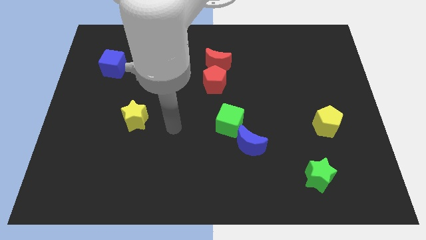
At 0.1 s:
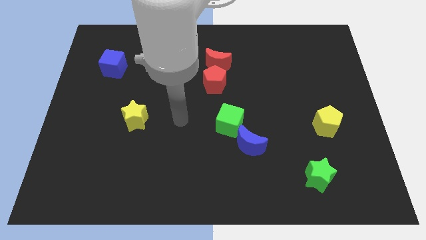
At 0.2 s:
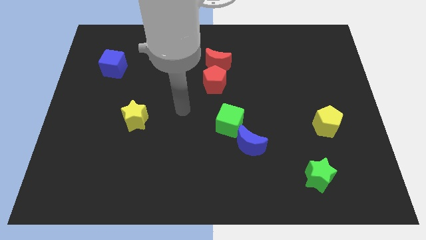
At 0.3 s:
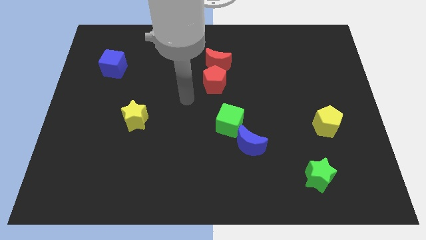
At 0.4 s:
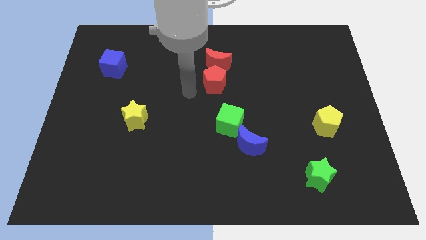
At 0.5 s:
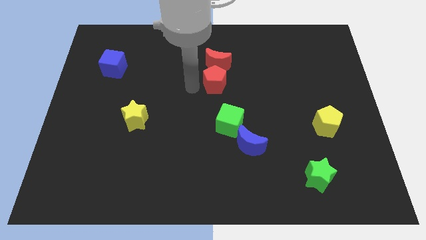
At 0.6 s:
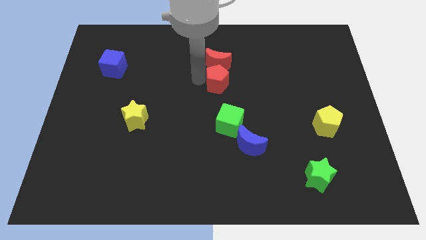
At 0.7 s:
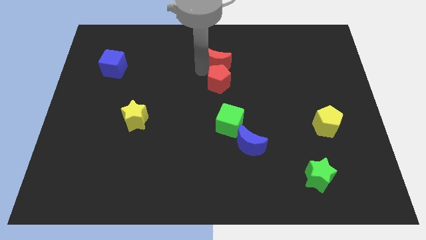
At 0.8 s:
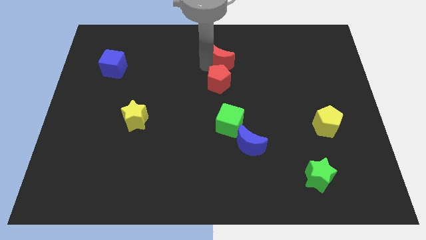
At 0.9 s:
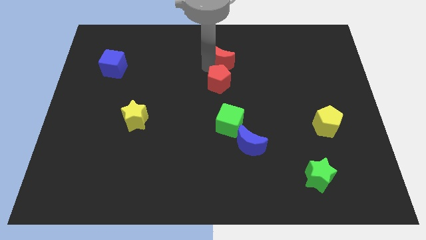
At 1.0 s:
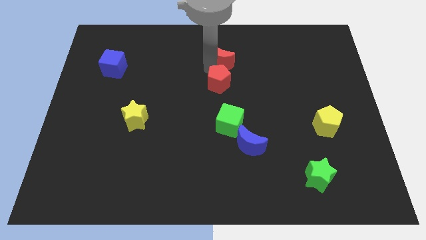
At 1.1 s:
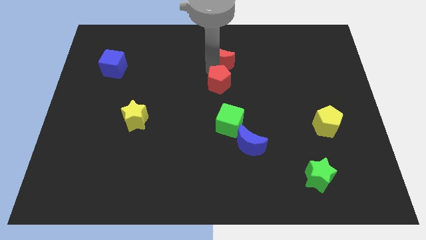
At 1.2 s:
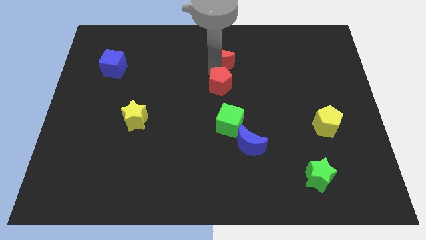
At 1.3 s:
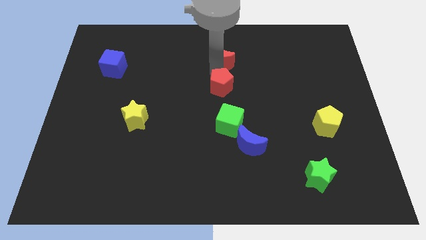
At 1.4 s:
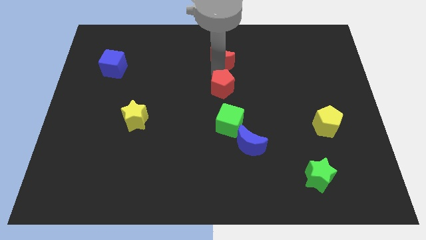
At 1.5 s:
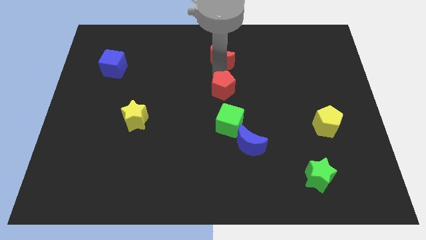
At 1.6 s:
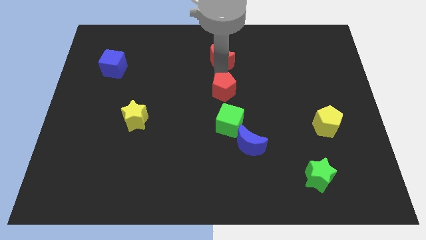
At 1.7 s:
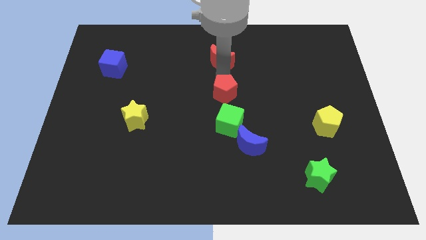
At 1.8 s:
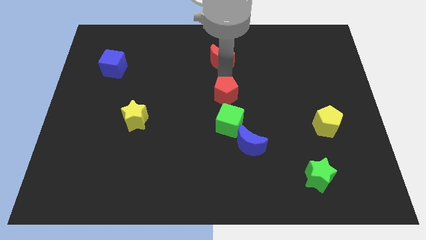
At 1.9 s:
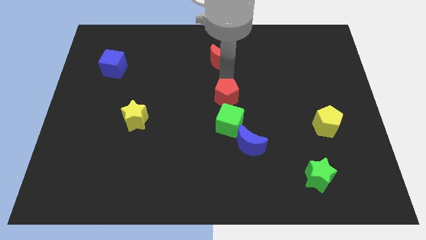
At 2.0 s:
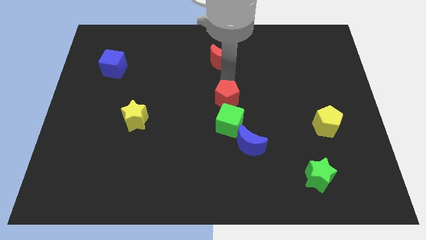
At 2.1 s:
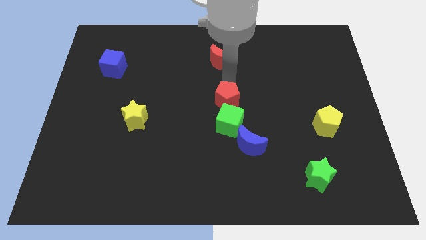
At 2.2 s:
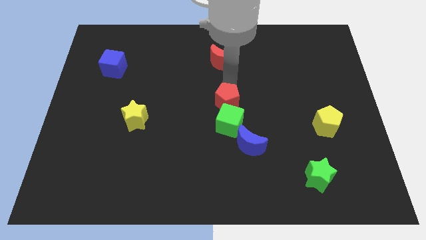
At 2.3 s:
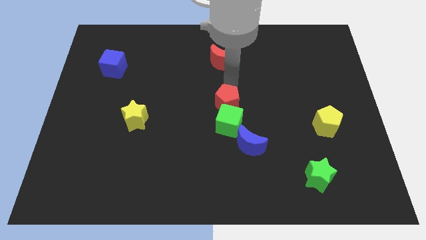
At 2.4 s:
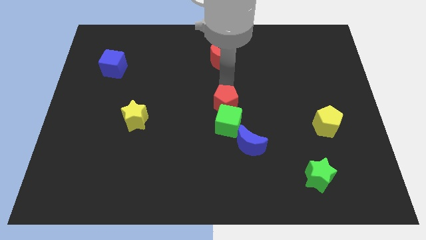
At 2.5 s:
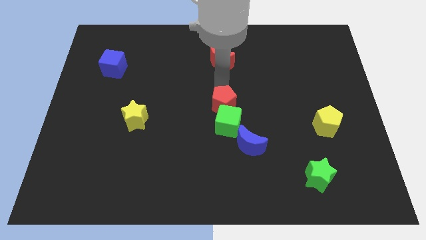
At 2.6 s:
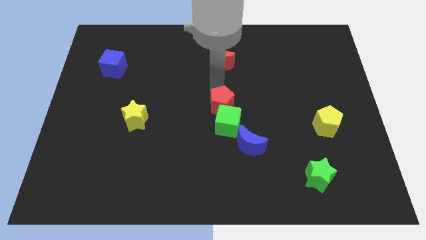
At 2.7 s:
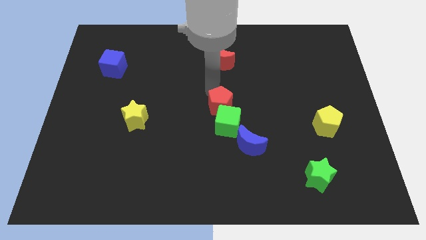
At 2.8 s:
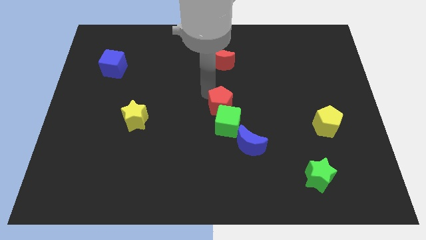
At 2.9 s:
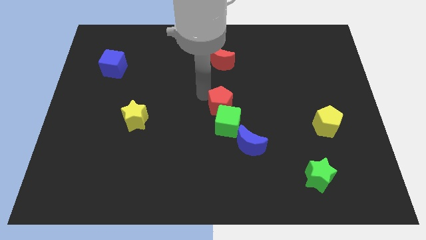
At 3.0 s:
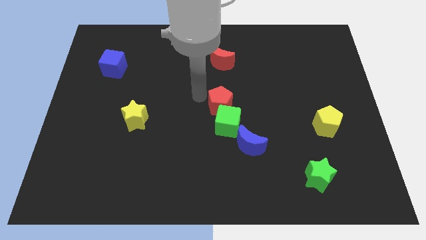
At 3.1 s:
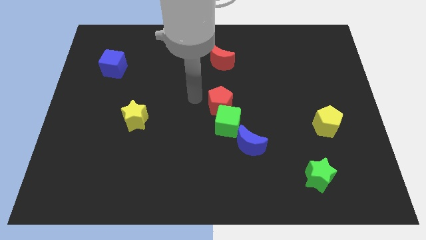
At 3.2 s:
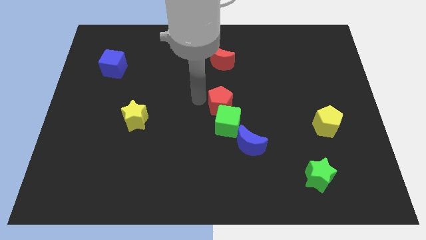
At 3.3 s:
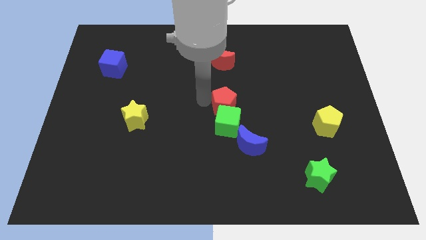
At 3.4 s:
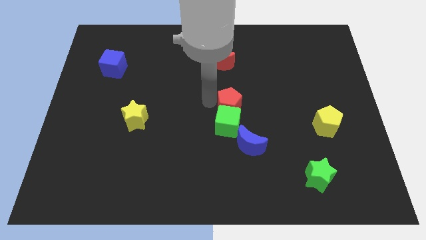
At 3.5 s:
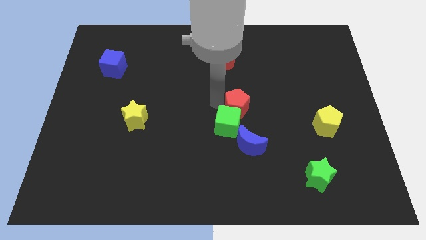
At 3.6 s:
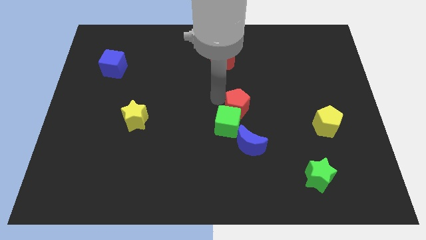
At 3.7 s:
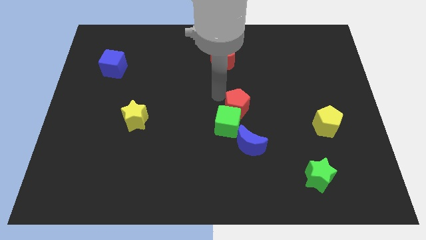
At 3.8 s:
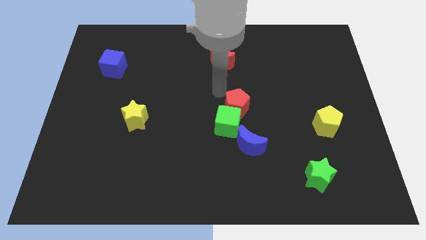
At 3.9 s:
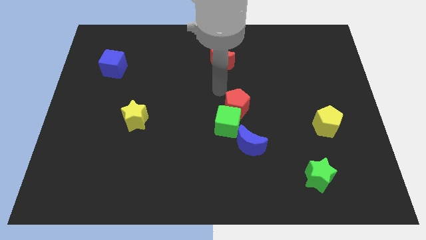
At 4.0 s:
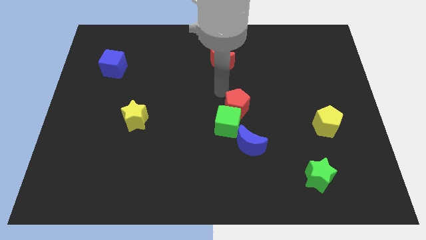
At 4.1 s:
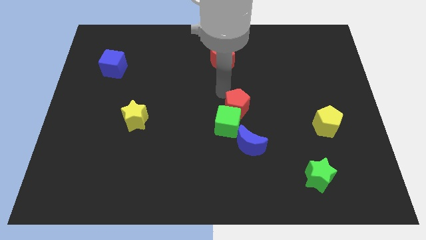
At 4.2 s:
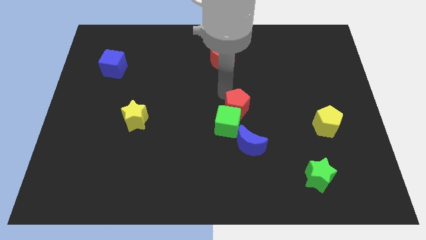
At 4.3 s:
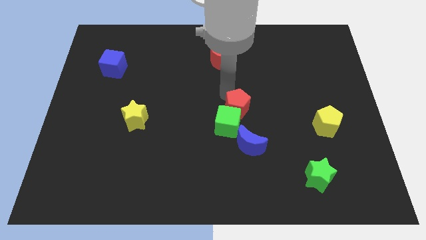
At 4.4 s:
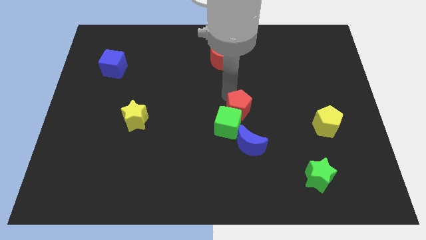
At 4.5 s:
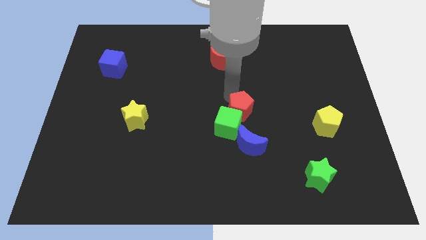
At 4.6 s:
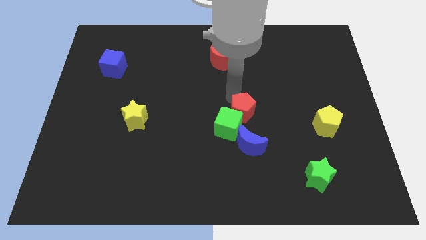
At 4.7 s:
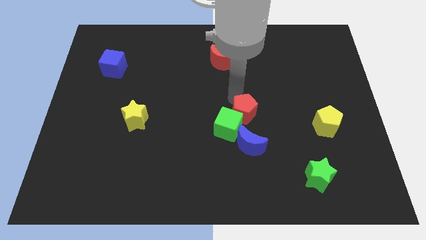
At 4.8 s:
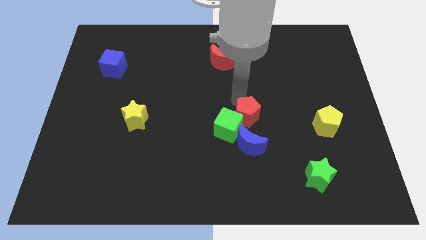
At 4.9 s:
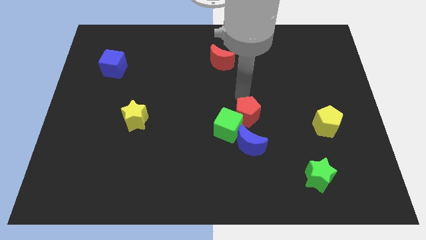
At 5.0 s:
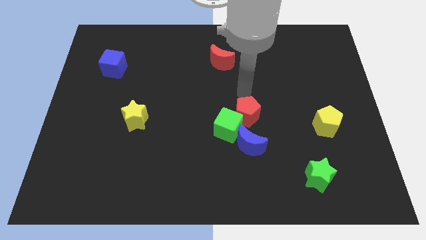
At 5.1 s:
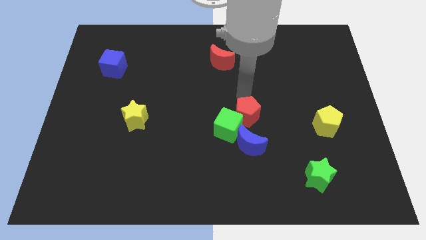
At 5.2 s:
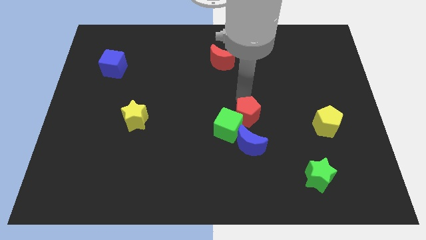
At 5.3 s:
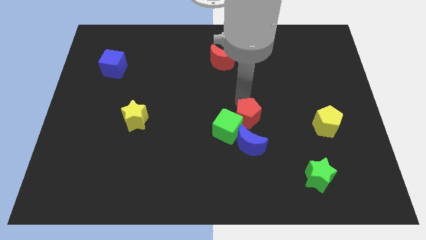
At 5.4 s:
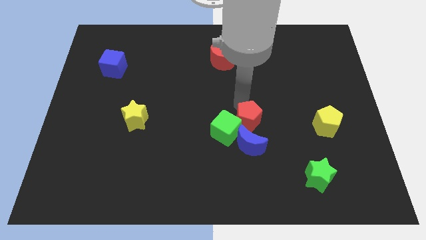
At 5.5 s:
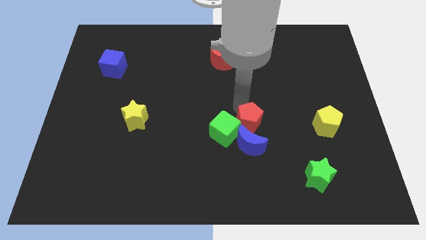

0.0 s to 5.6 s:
put the red pentagon close to the blue moon

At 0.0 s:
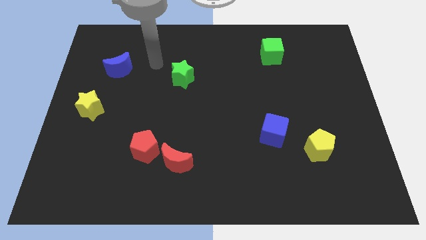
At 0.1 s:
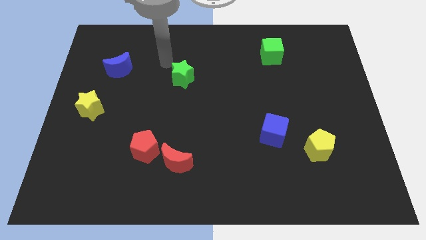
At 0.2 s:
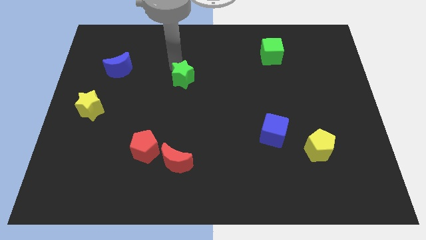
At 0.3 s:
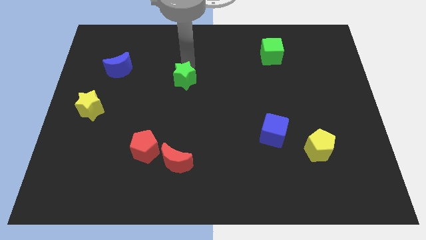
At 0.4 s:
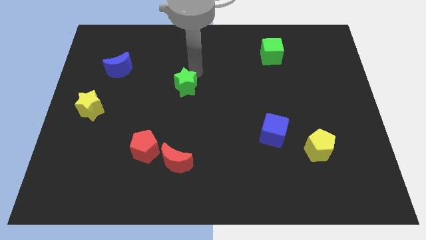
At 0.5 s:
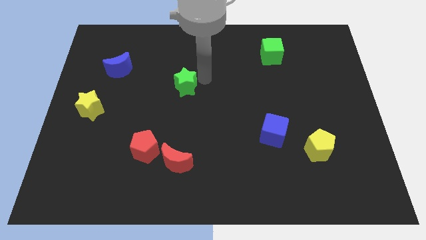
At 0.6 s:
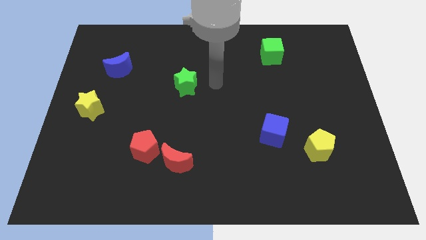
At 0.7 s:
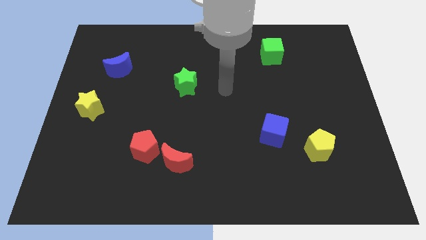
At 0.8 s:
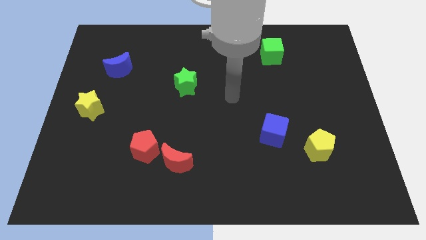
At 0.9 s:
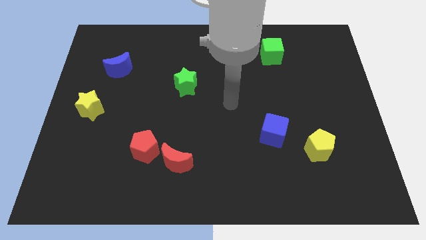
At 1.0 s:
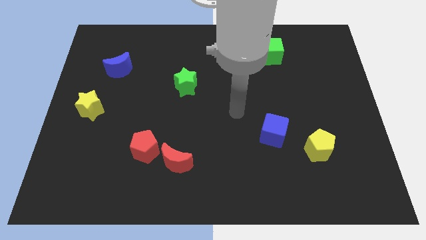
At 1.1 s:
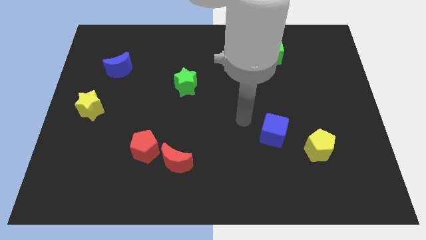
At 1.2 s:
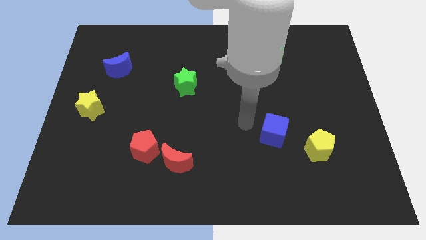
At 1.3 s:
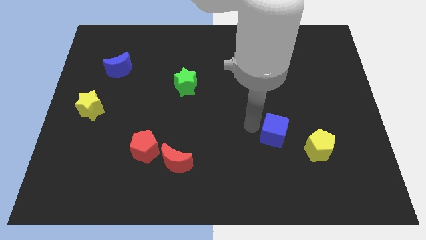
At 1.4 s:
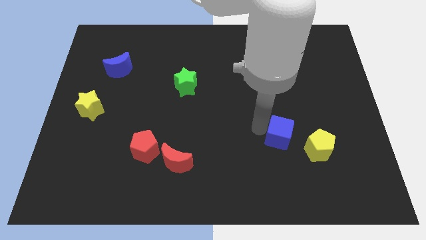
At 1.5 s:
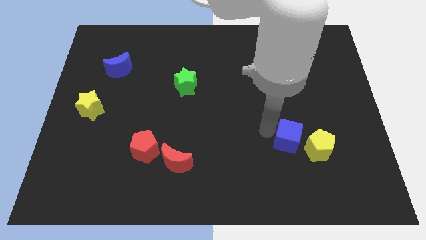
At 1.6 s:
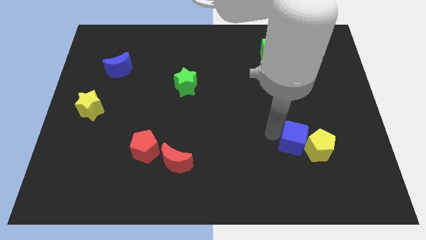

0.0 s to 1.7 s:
push the blue cube towards the yellow pentagon

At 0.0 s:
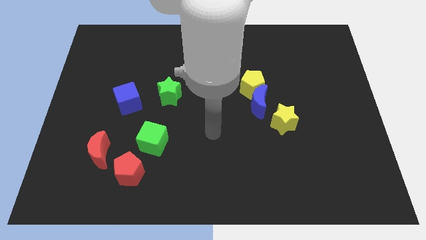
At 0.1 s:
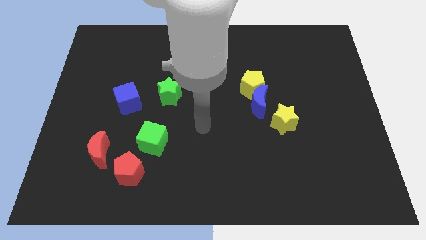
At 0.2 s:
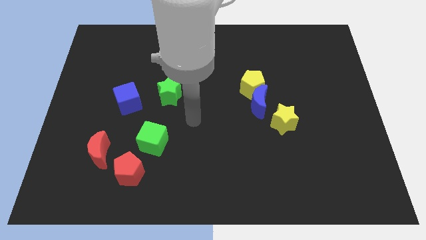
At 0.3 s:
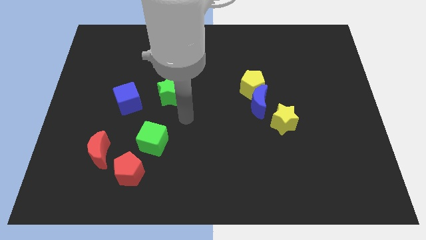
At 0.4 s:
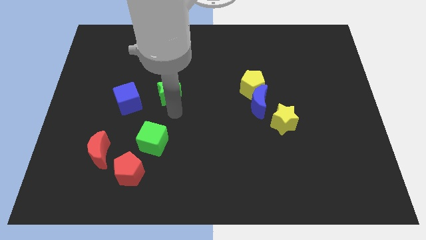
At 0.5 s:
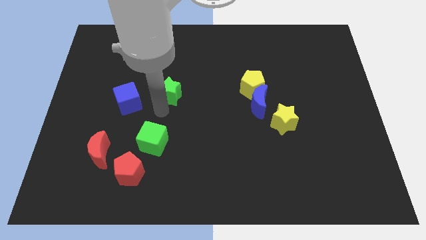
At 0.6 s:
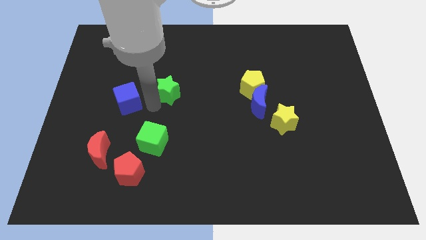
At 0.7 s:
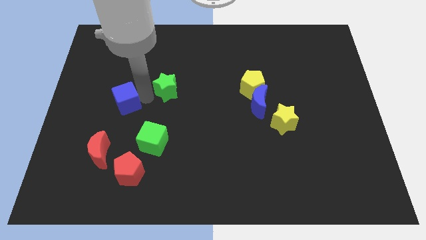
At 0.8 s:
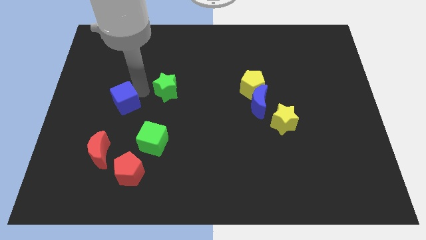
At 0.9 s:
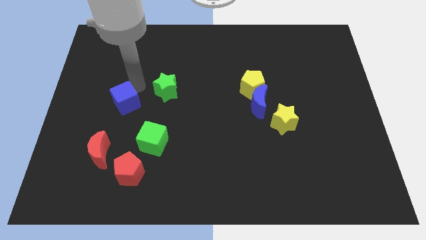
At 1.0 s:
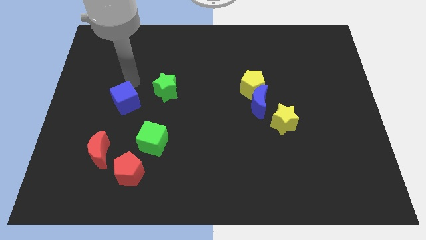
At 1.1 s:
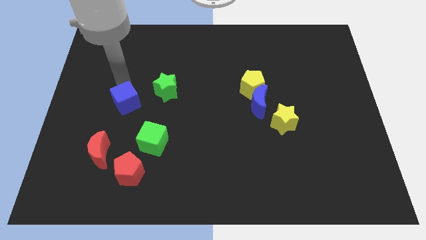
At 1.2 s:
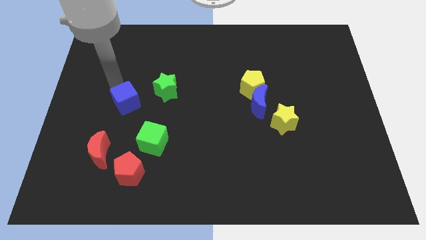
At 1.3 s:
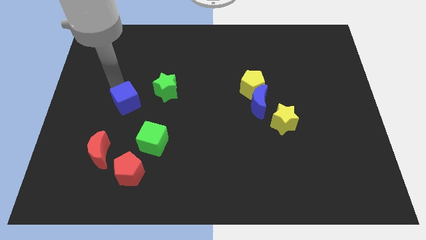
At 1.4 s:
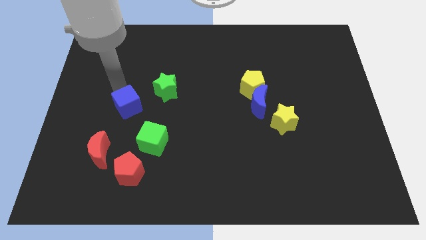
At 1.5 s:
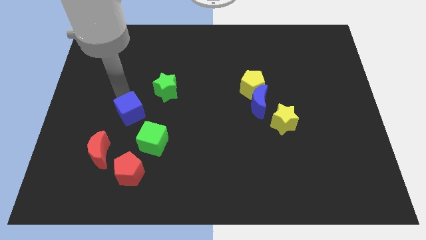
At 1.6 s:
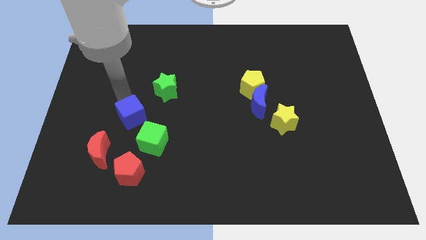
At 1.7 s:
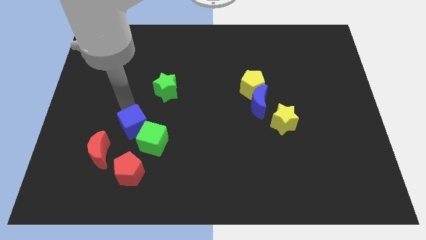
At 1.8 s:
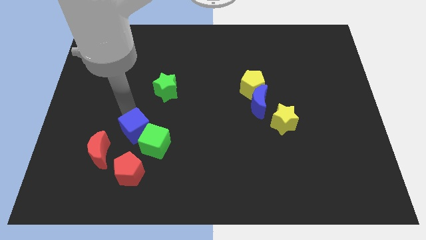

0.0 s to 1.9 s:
put the blue cube next to the green cube
